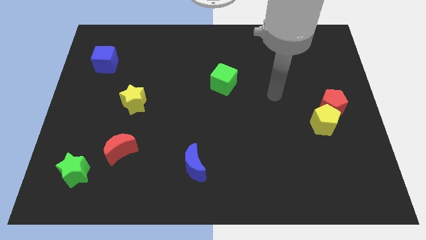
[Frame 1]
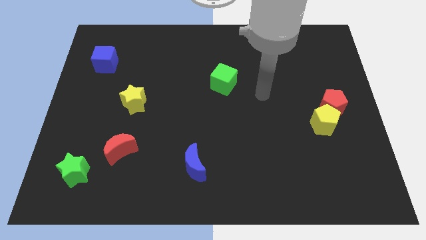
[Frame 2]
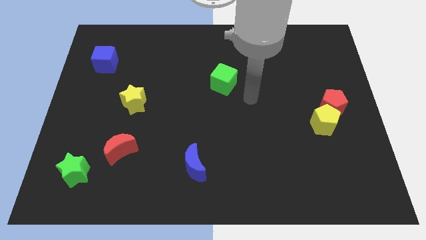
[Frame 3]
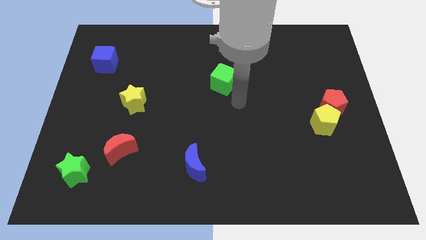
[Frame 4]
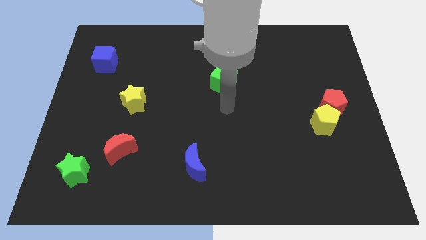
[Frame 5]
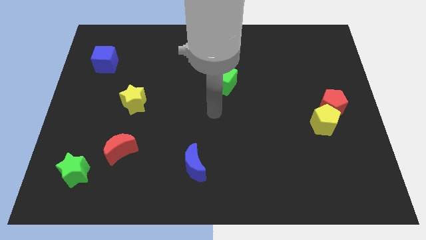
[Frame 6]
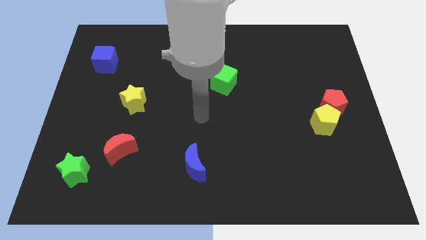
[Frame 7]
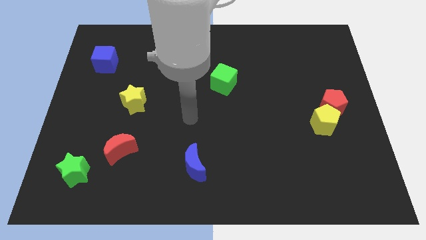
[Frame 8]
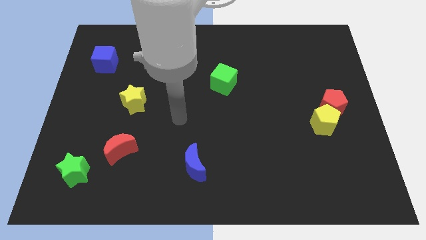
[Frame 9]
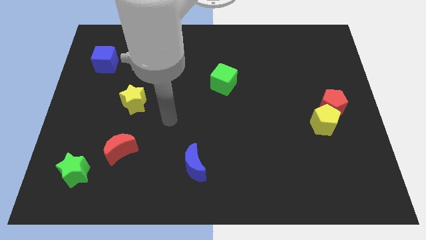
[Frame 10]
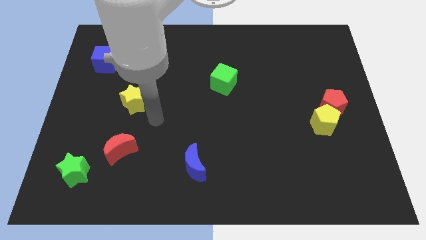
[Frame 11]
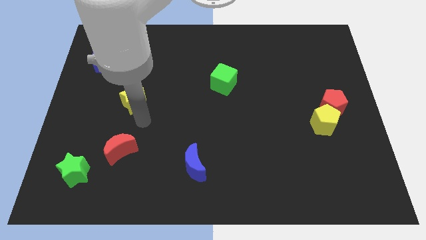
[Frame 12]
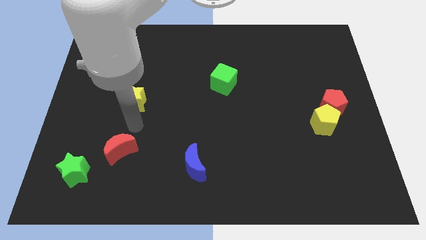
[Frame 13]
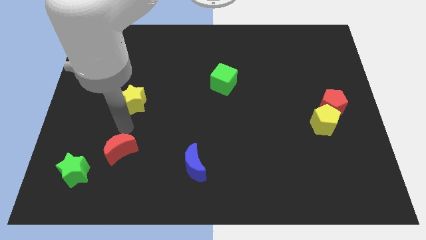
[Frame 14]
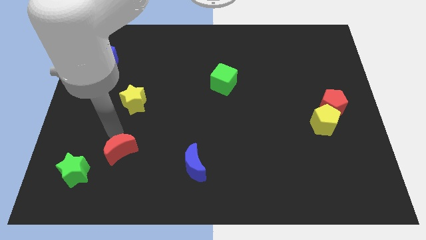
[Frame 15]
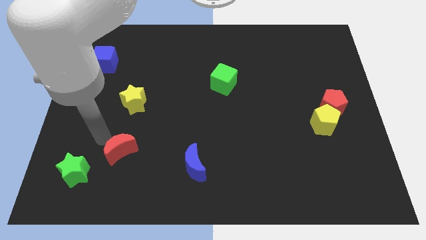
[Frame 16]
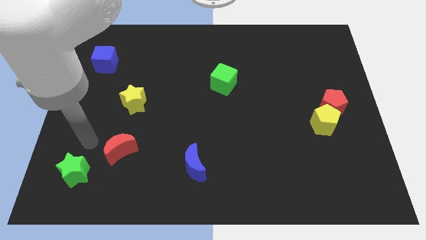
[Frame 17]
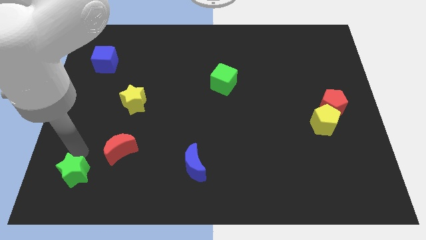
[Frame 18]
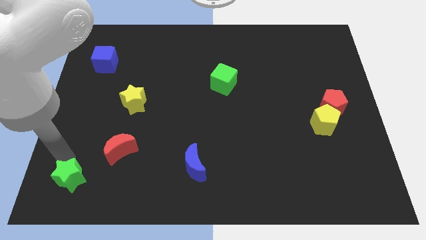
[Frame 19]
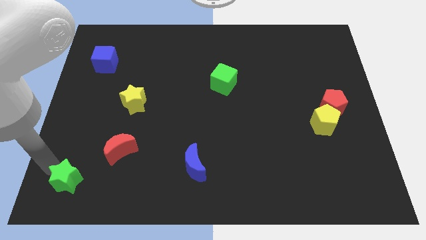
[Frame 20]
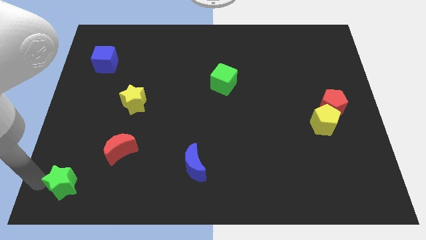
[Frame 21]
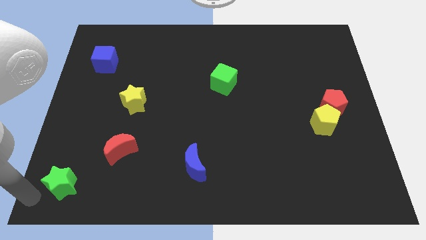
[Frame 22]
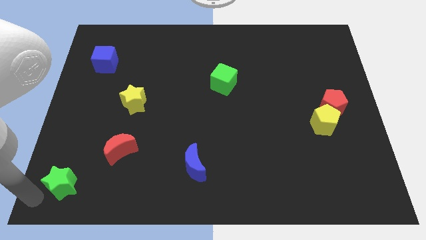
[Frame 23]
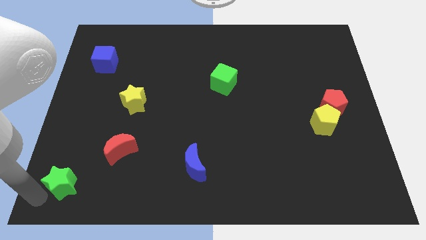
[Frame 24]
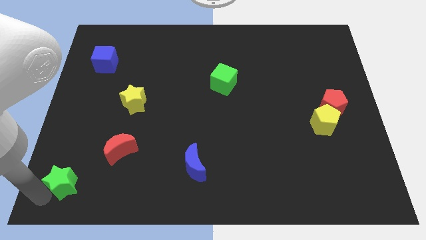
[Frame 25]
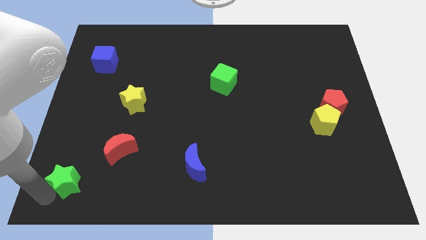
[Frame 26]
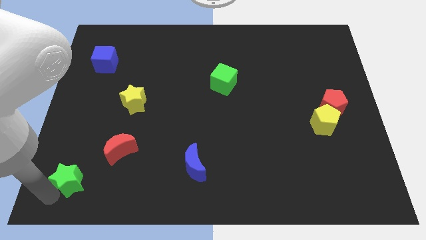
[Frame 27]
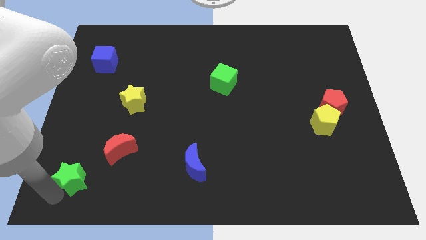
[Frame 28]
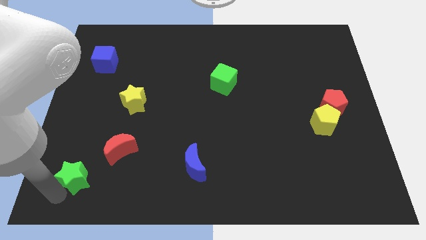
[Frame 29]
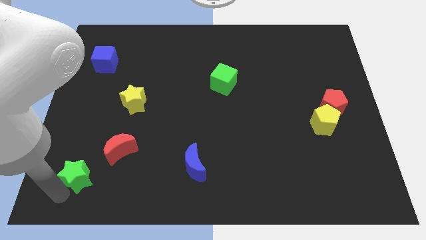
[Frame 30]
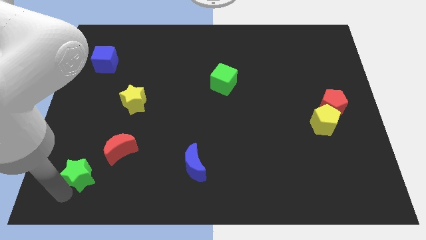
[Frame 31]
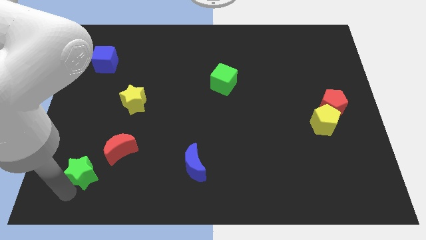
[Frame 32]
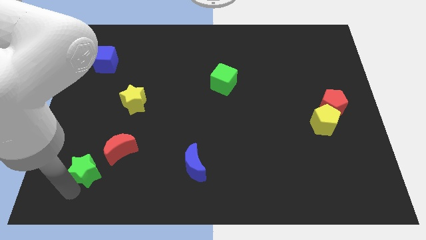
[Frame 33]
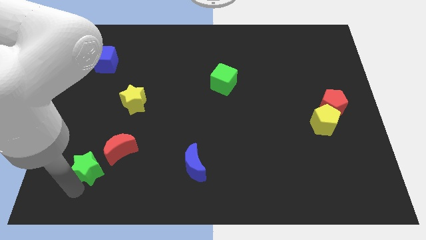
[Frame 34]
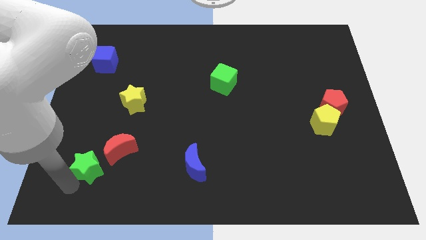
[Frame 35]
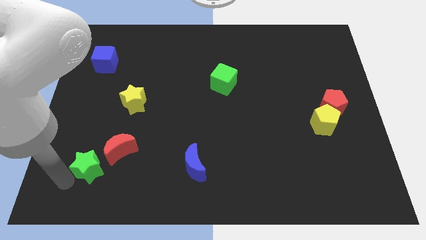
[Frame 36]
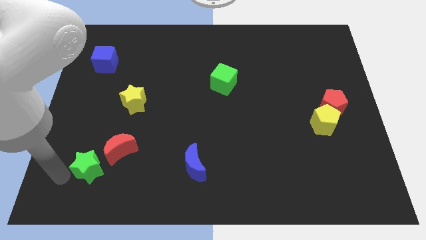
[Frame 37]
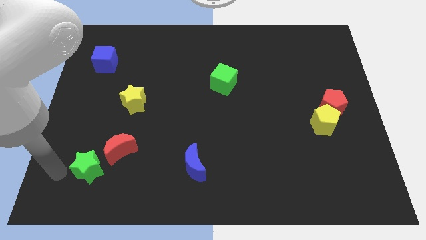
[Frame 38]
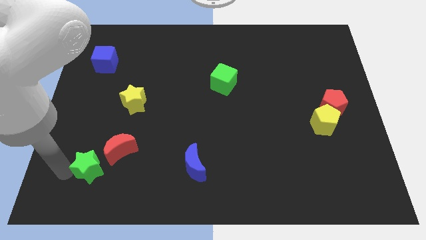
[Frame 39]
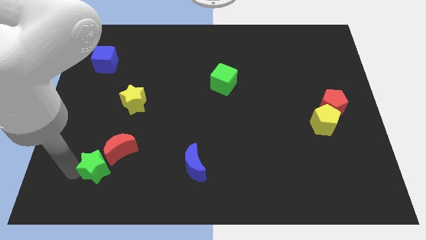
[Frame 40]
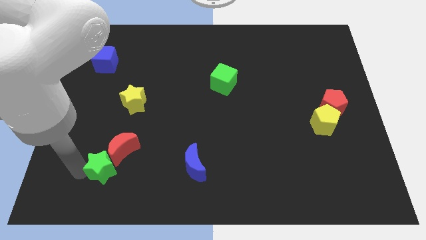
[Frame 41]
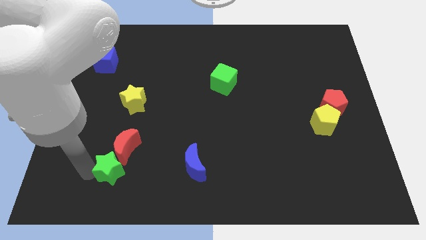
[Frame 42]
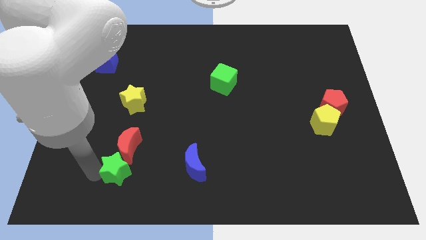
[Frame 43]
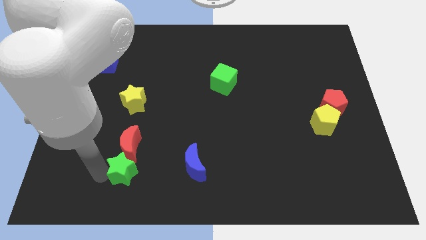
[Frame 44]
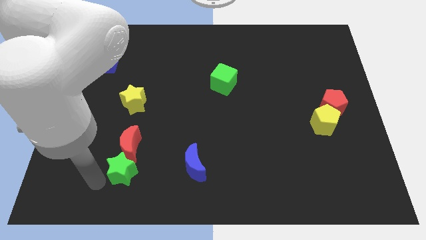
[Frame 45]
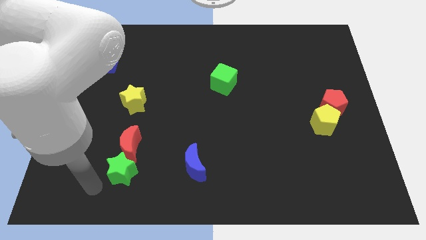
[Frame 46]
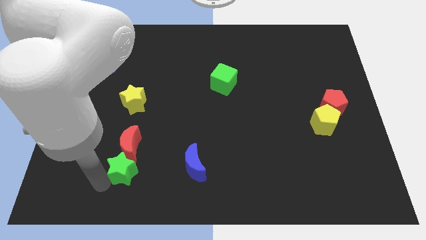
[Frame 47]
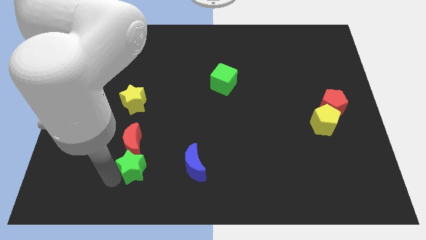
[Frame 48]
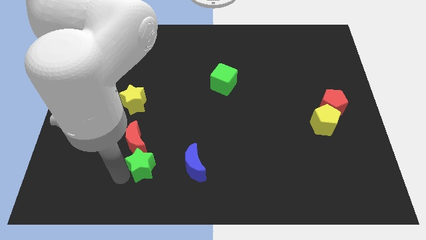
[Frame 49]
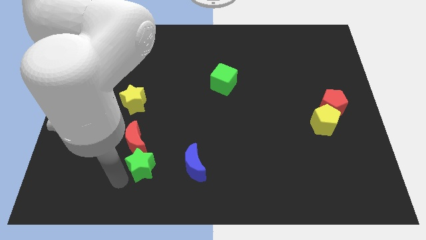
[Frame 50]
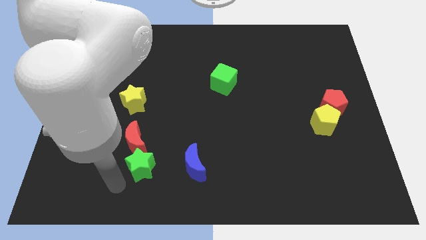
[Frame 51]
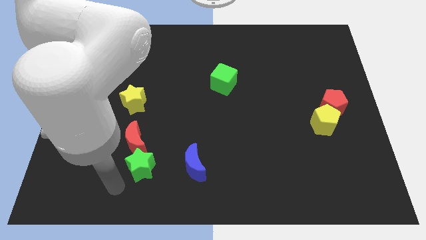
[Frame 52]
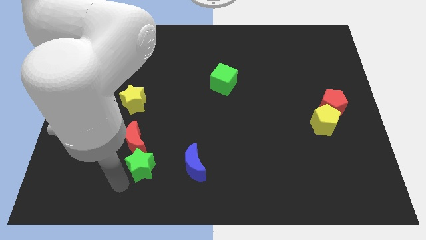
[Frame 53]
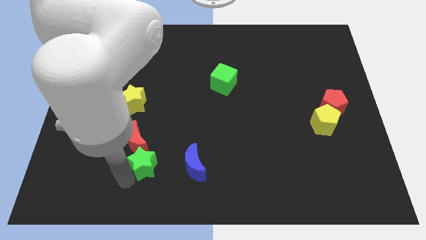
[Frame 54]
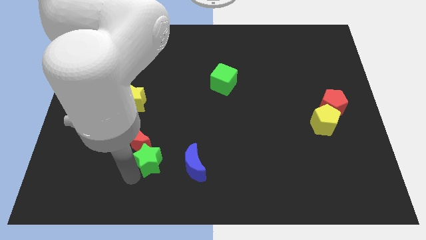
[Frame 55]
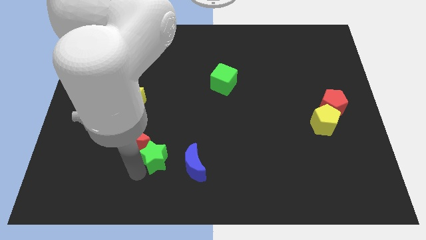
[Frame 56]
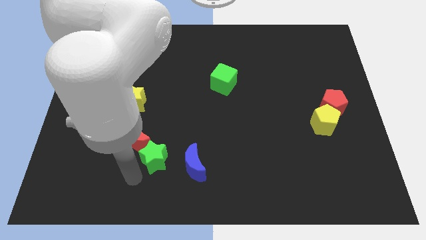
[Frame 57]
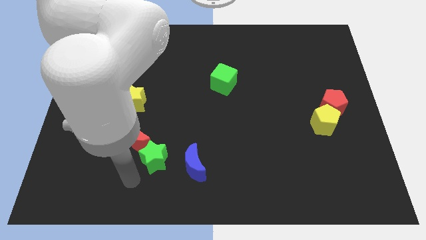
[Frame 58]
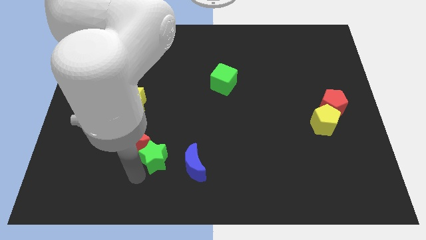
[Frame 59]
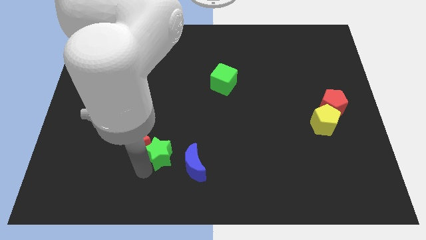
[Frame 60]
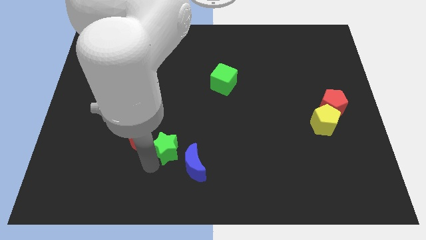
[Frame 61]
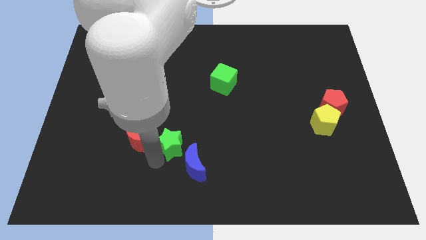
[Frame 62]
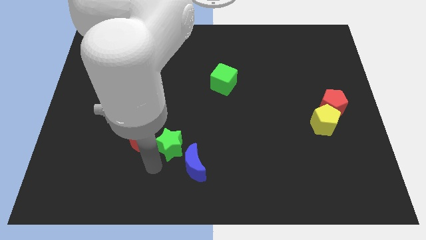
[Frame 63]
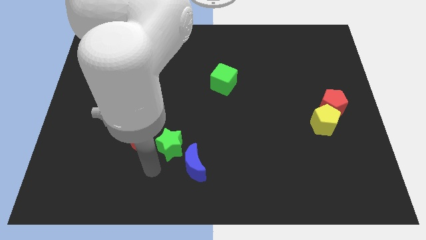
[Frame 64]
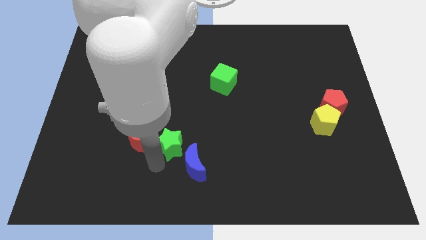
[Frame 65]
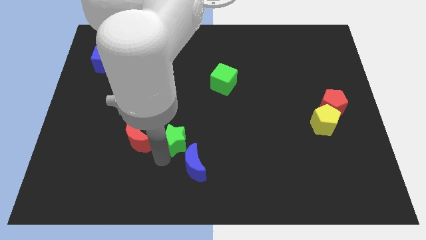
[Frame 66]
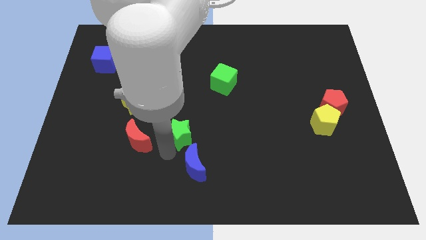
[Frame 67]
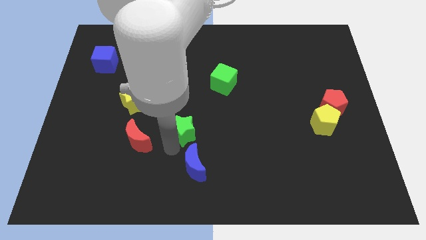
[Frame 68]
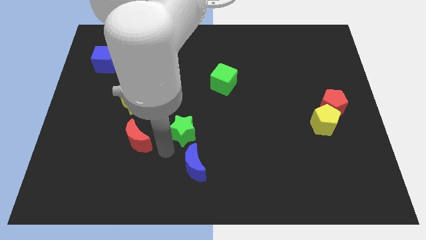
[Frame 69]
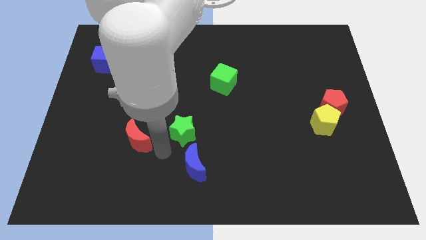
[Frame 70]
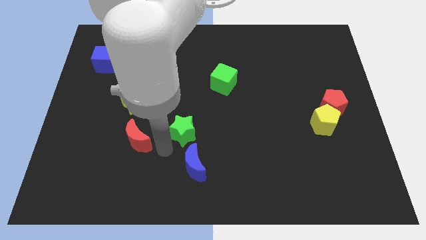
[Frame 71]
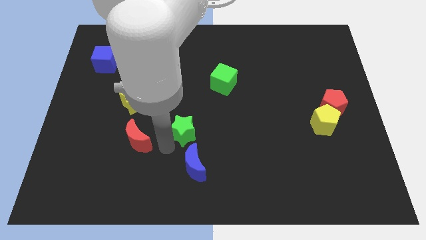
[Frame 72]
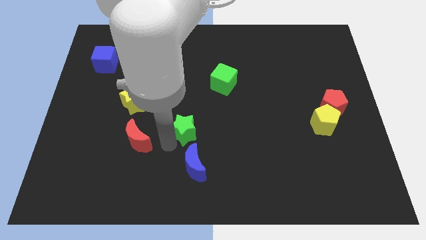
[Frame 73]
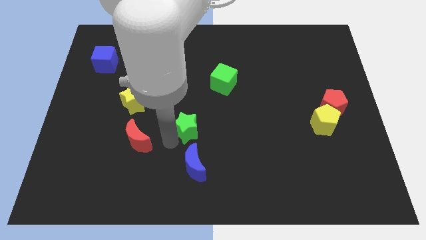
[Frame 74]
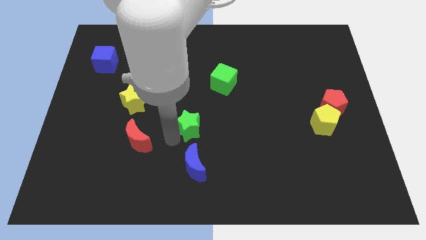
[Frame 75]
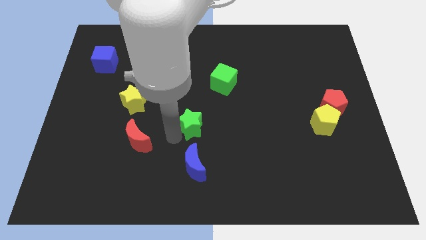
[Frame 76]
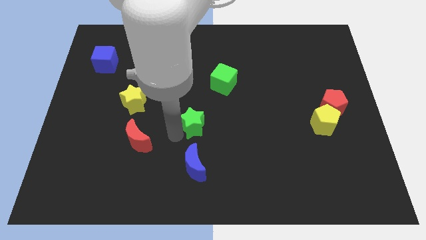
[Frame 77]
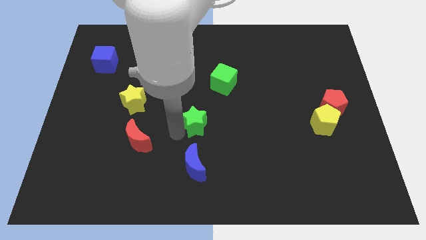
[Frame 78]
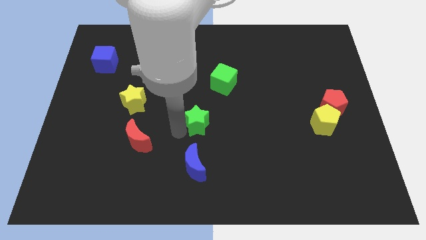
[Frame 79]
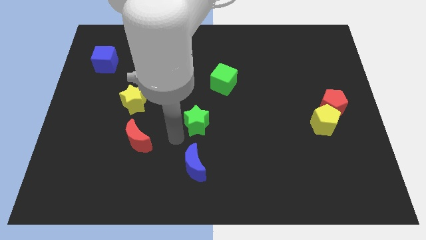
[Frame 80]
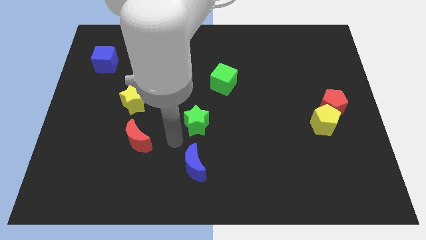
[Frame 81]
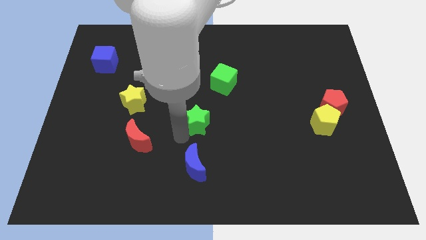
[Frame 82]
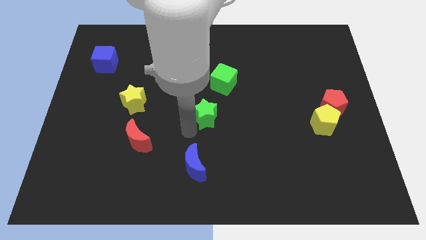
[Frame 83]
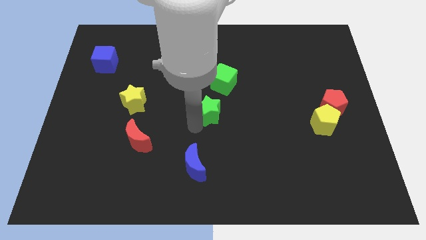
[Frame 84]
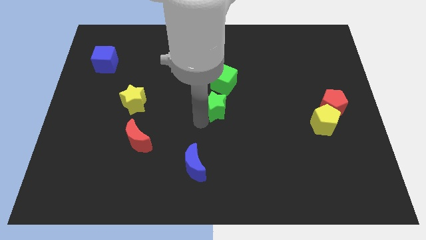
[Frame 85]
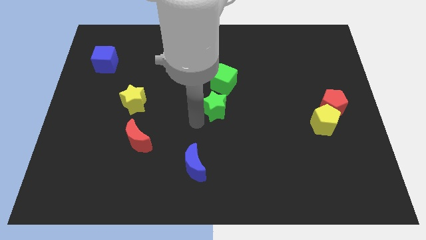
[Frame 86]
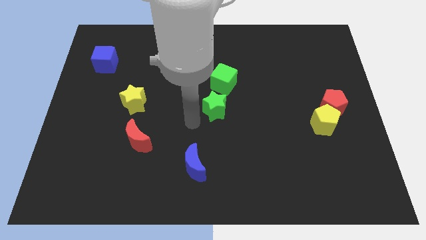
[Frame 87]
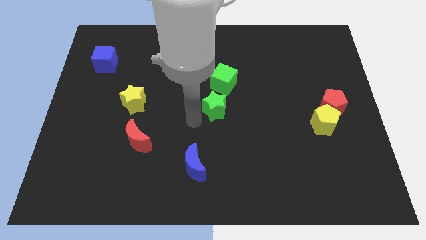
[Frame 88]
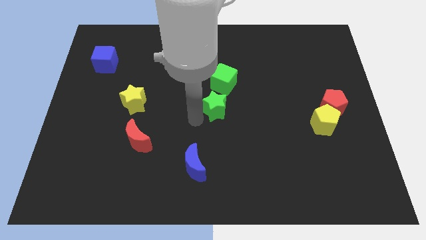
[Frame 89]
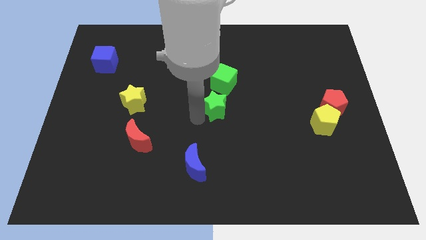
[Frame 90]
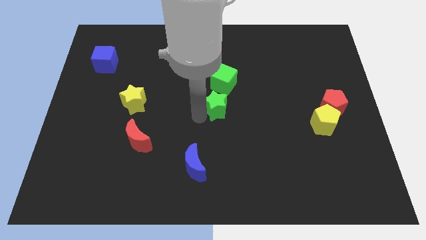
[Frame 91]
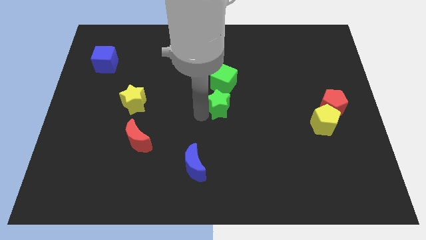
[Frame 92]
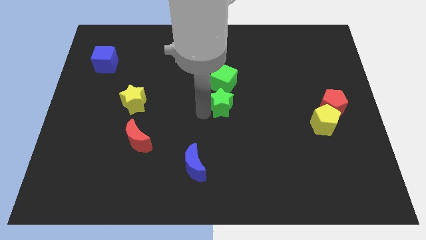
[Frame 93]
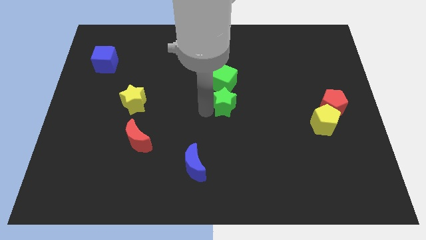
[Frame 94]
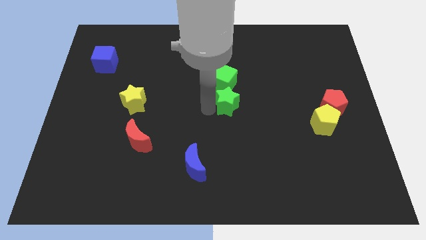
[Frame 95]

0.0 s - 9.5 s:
slide the green star diagonally down and to the right of the green cube
